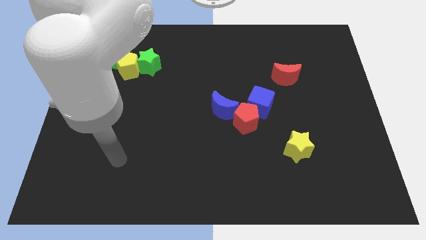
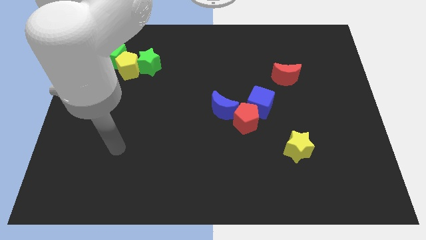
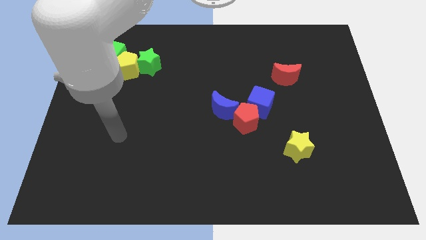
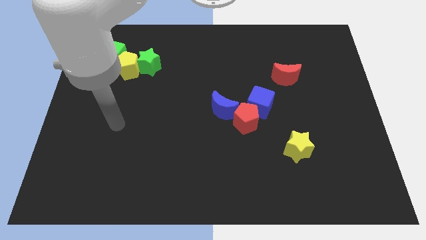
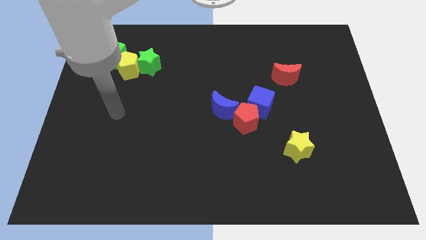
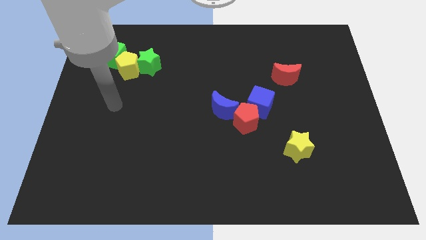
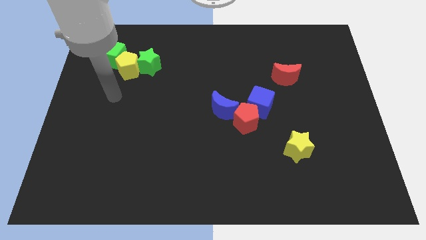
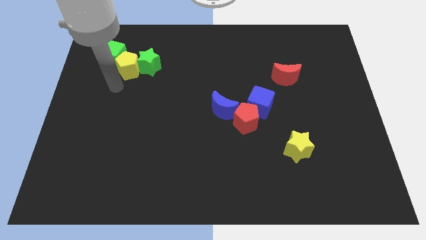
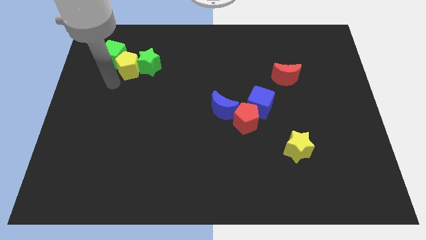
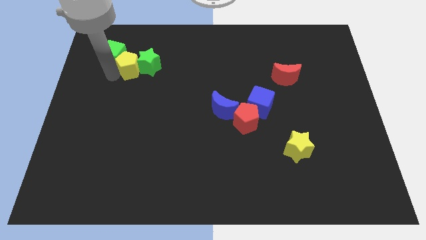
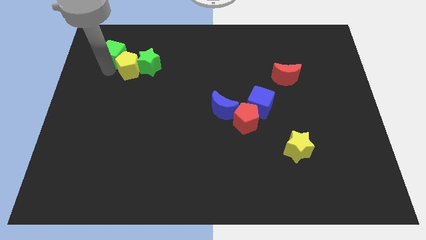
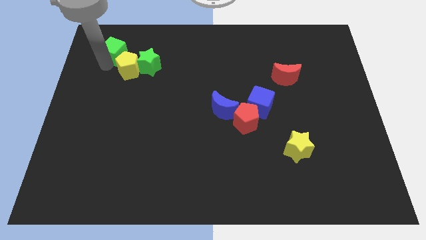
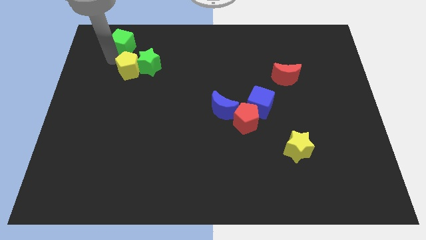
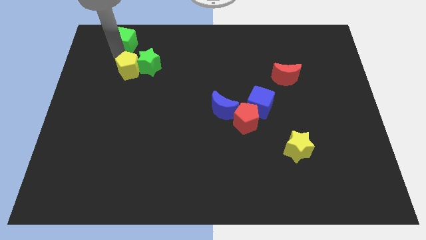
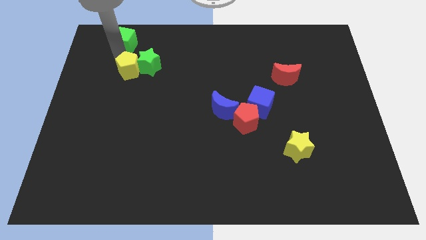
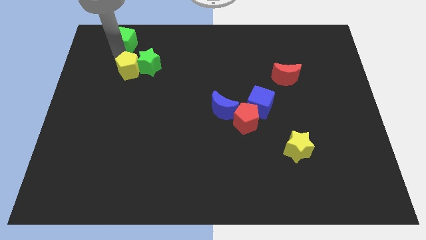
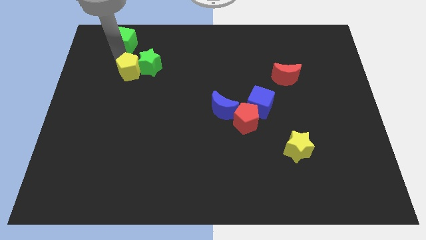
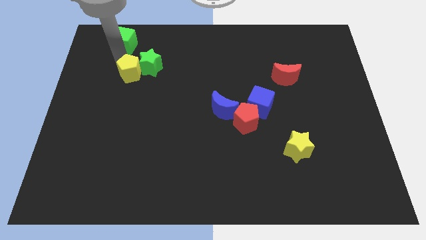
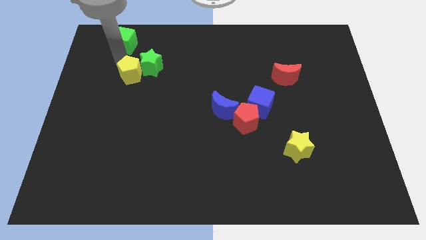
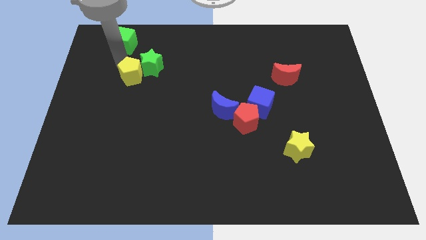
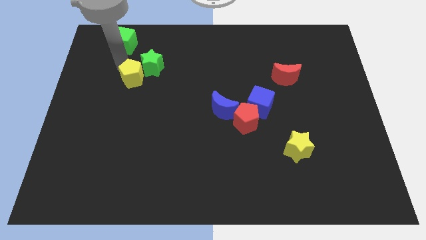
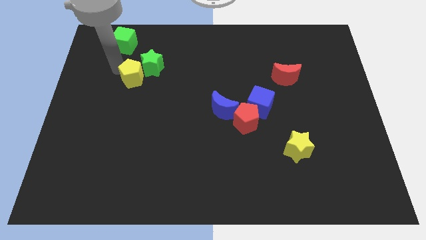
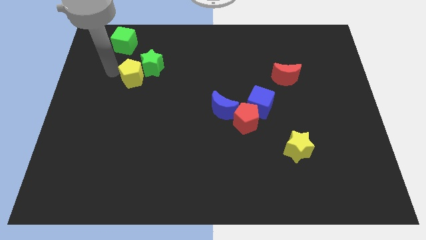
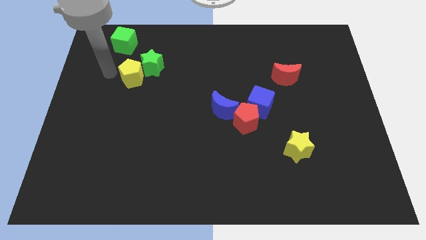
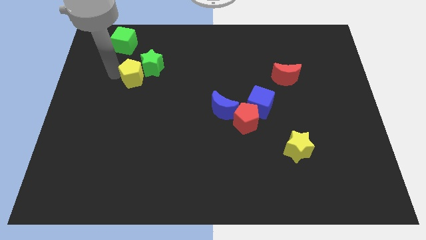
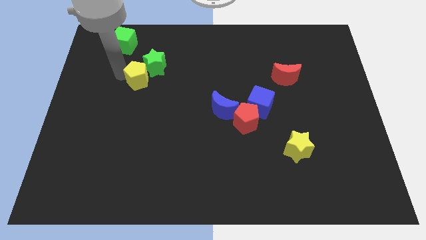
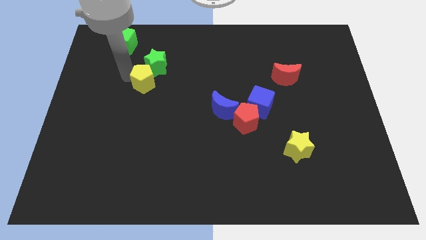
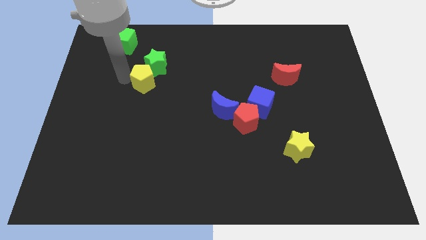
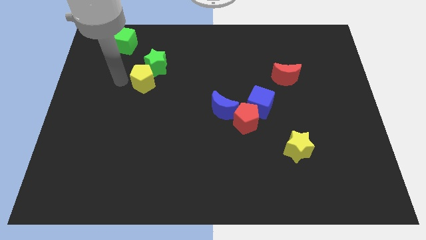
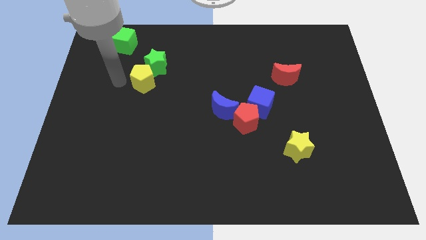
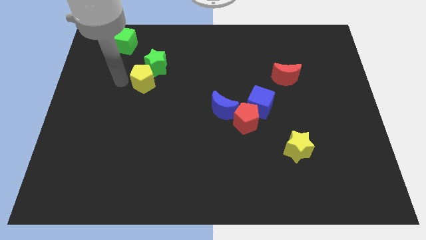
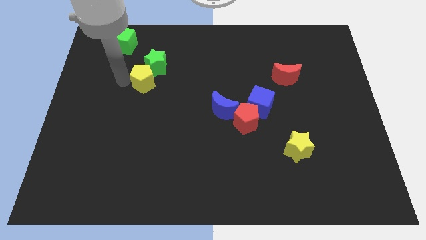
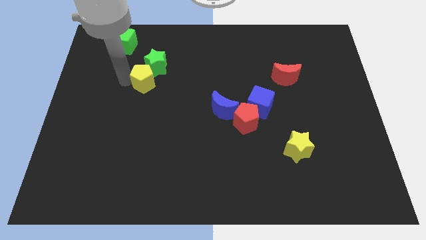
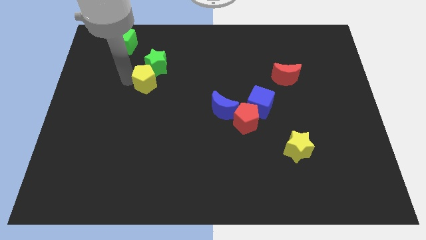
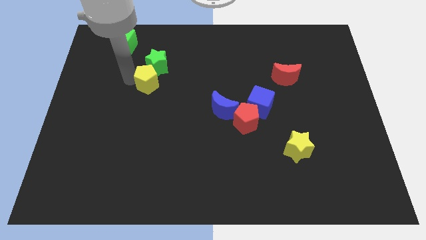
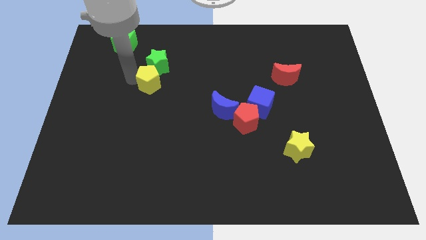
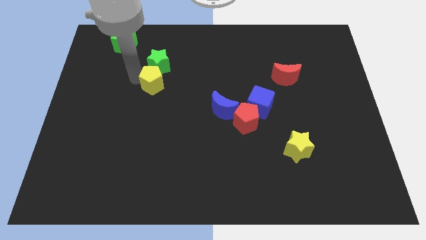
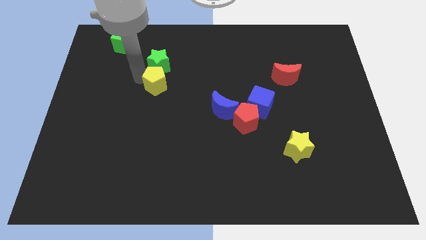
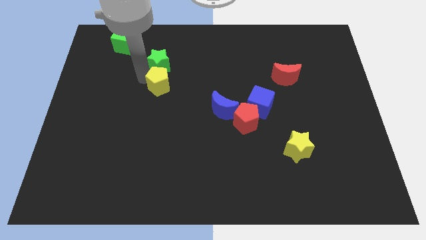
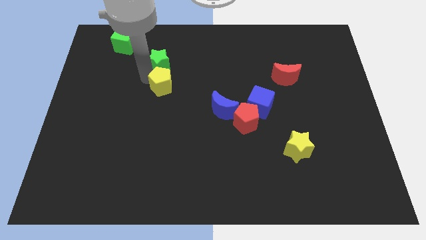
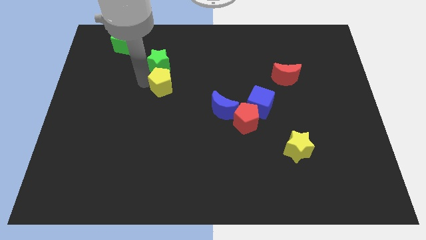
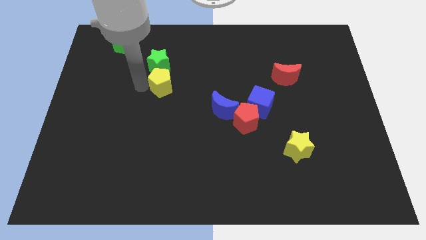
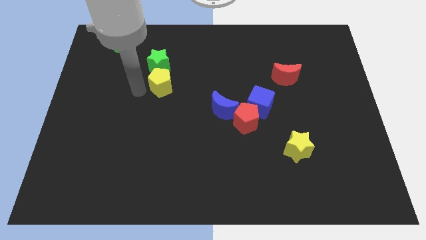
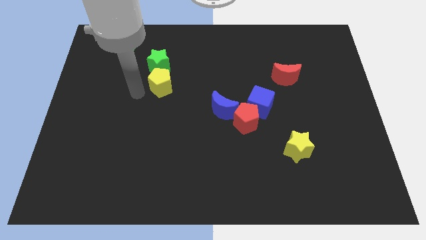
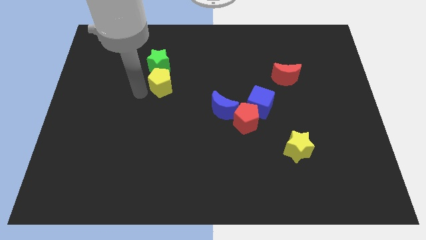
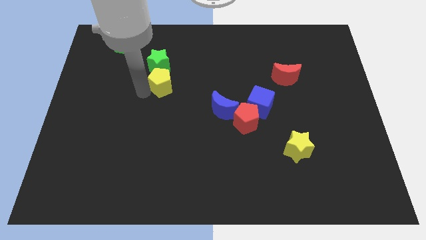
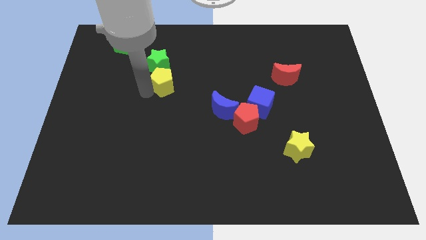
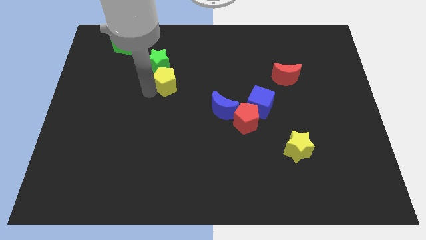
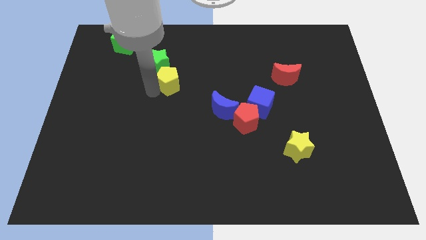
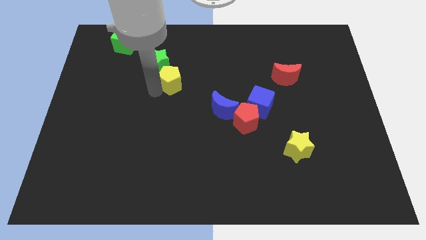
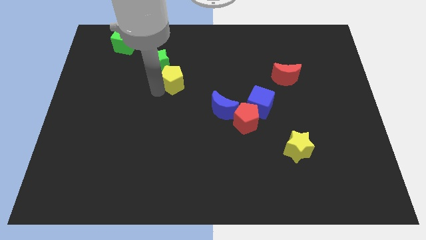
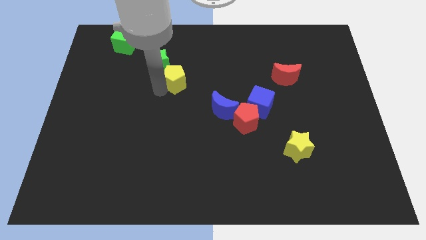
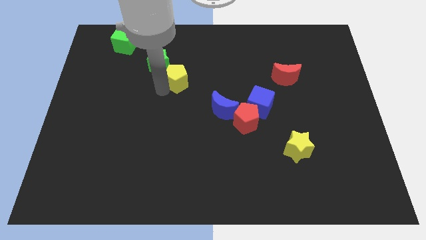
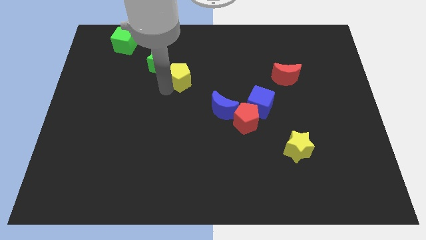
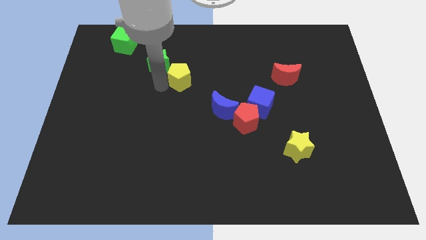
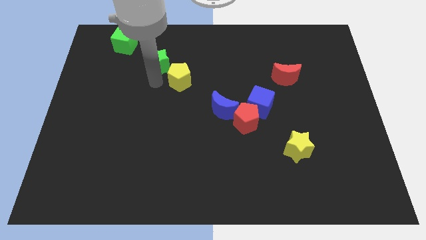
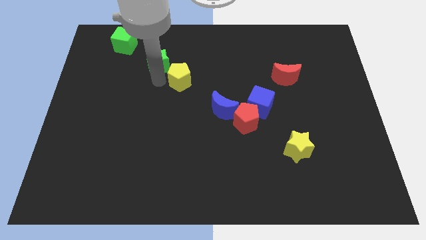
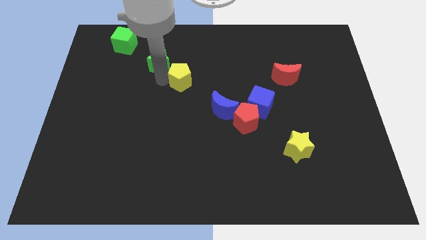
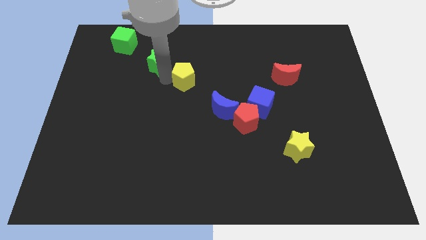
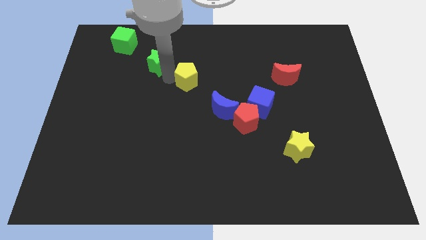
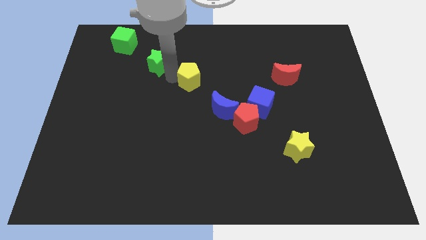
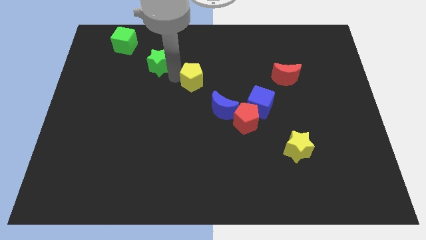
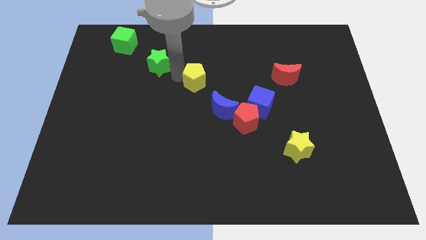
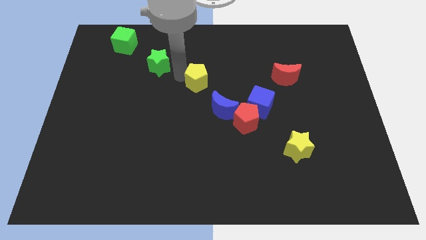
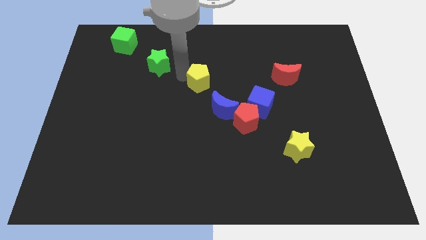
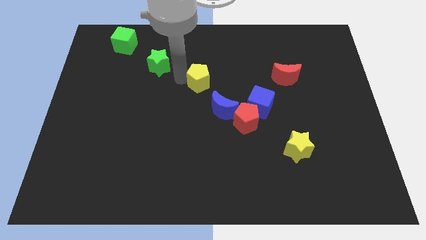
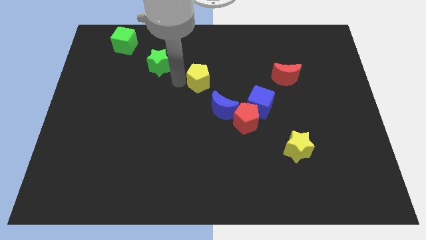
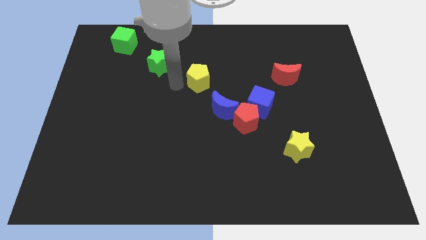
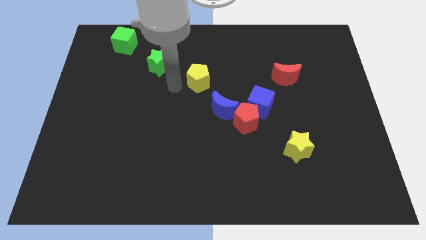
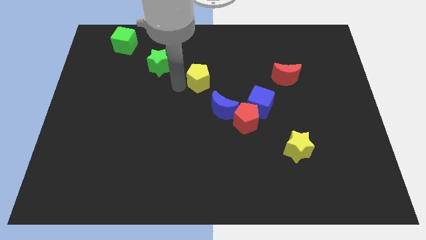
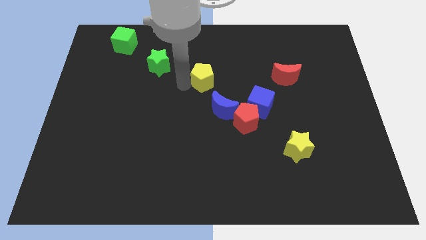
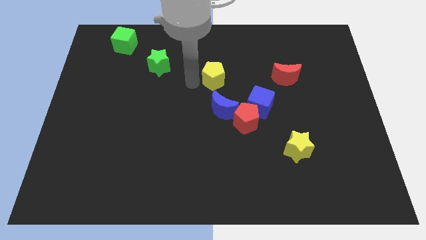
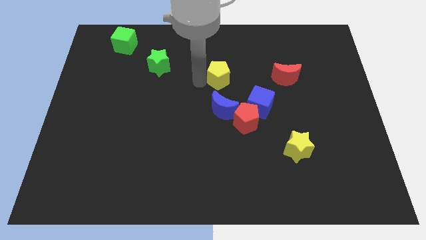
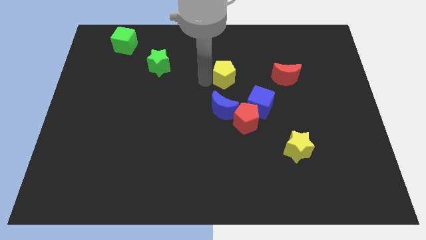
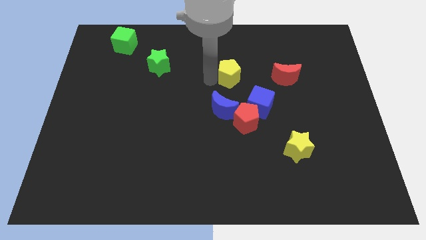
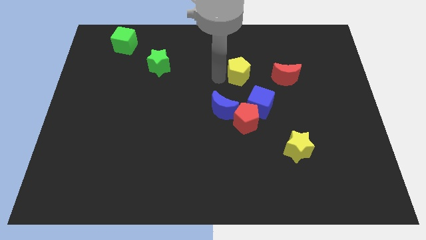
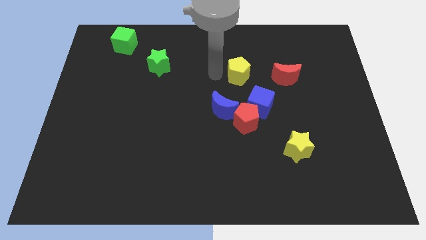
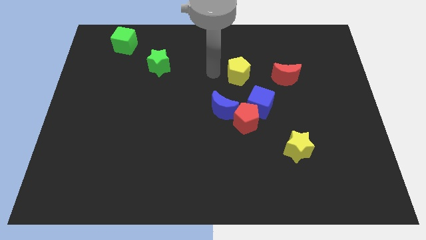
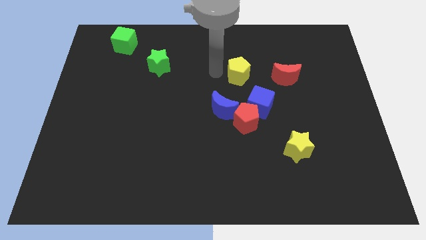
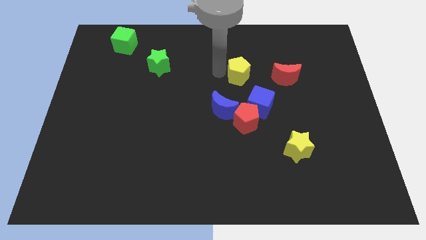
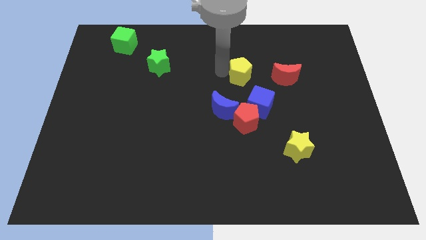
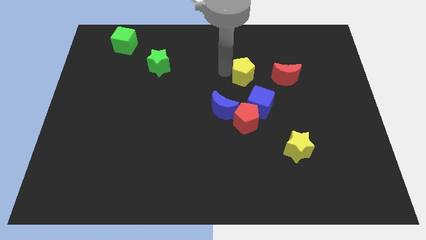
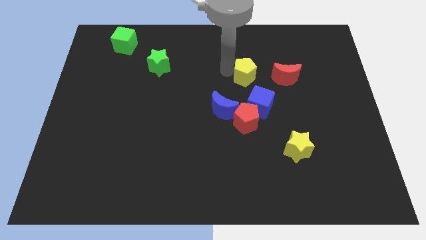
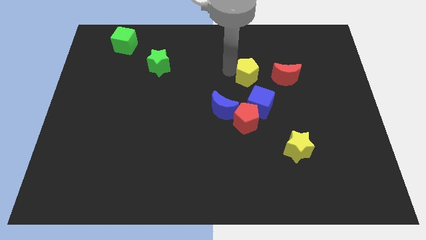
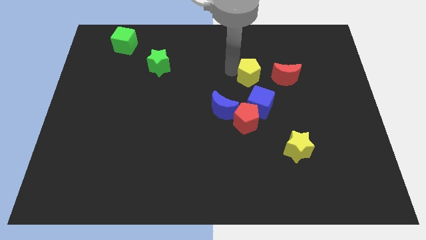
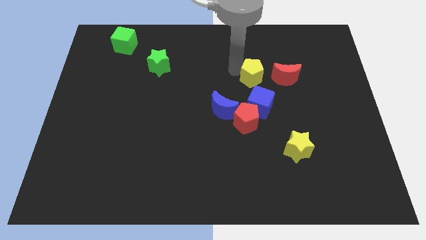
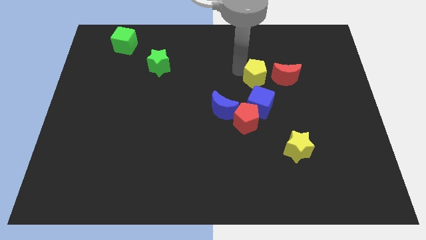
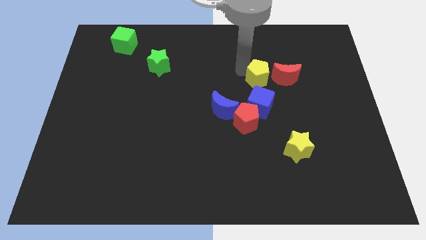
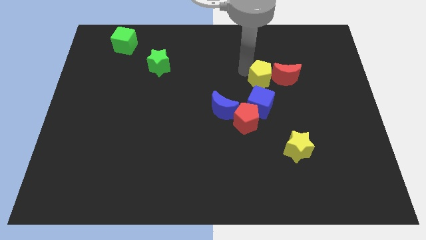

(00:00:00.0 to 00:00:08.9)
move the yellow pentagon next to the red moon
